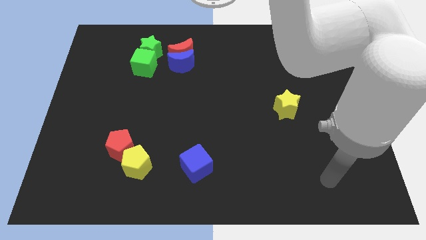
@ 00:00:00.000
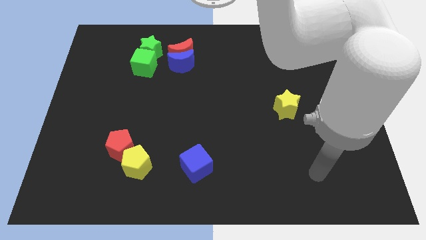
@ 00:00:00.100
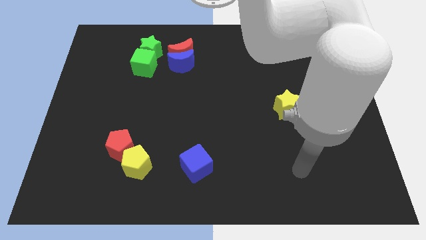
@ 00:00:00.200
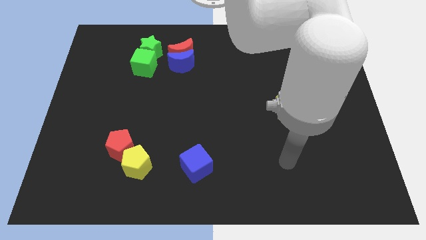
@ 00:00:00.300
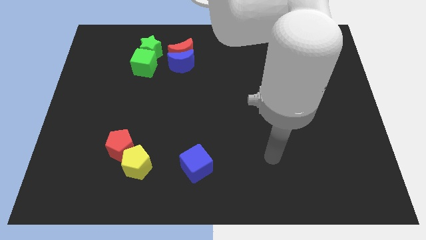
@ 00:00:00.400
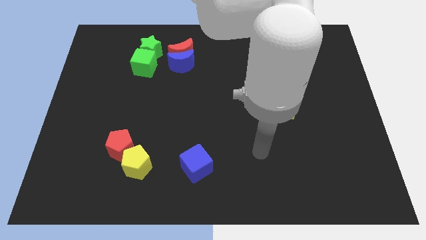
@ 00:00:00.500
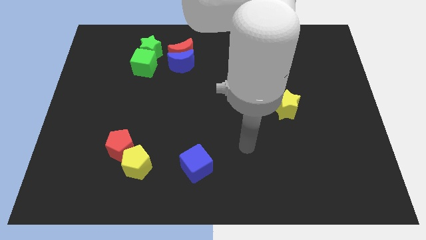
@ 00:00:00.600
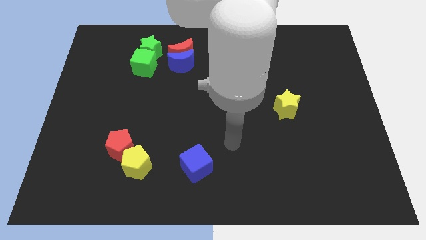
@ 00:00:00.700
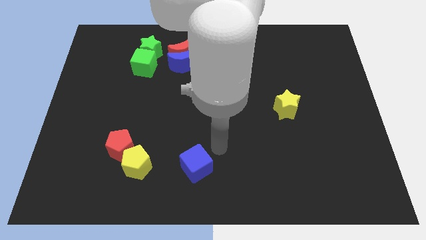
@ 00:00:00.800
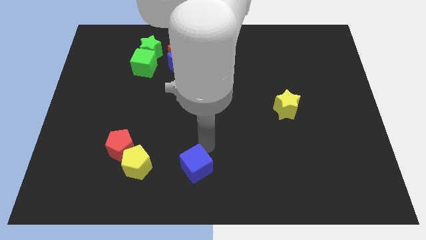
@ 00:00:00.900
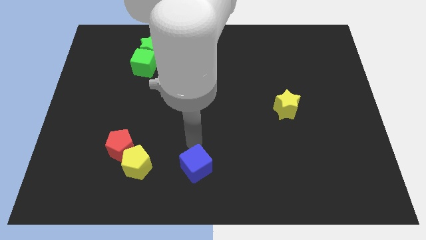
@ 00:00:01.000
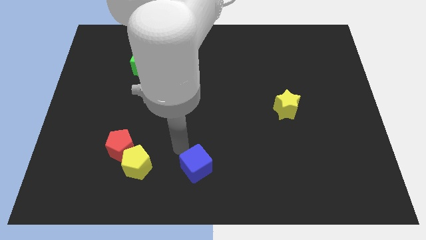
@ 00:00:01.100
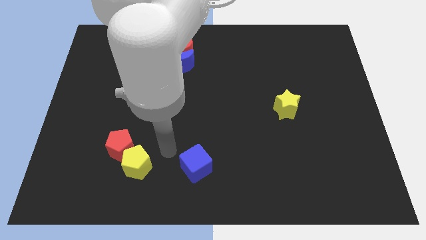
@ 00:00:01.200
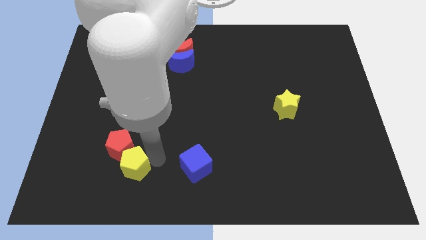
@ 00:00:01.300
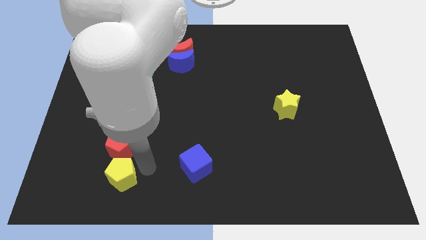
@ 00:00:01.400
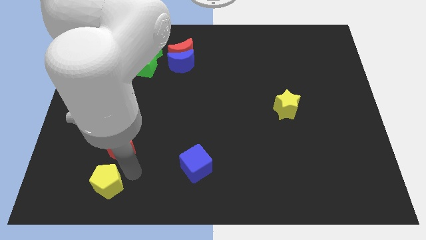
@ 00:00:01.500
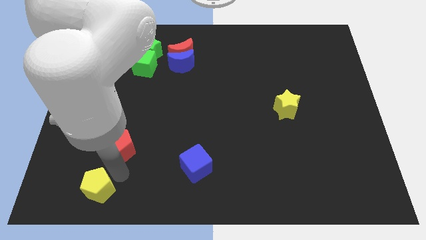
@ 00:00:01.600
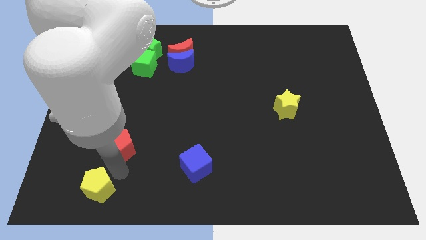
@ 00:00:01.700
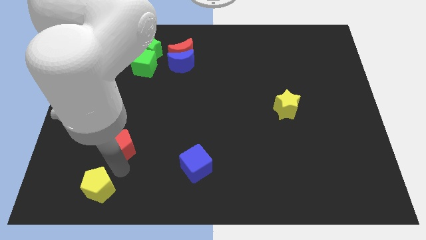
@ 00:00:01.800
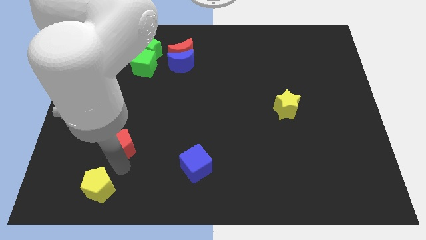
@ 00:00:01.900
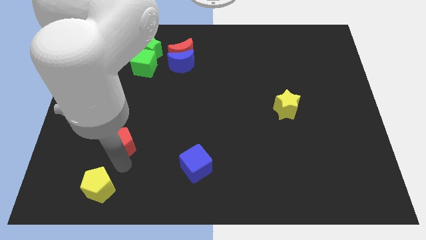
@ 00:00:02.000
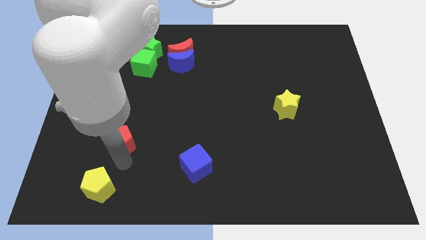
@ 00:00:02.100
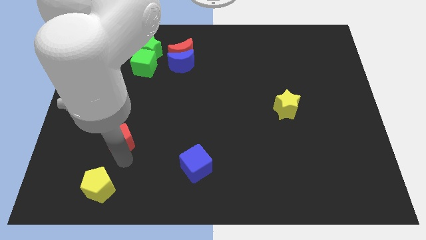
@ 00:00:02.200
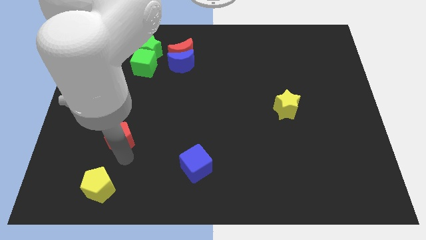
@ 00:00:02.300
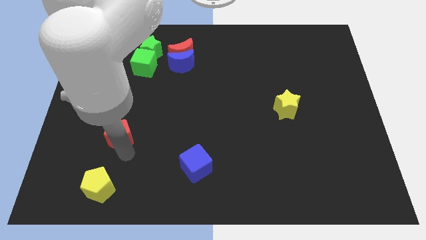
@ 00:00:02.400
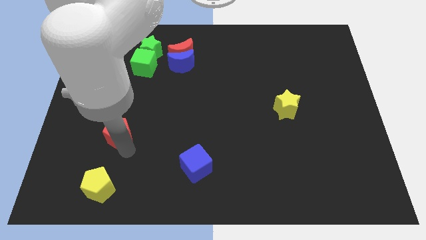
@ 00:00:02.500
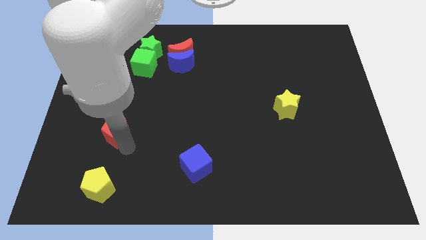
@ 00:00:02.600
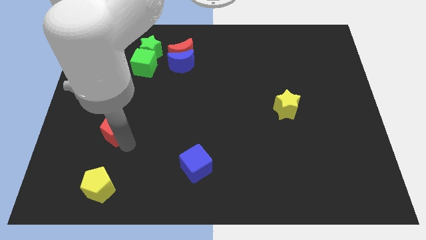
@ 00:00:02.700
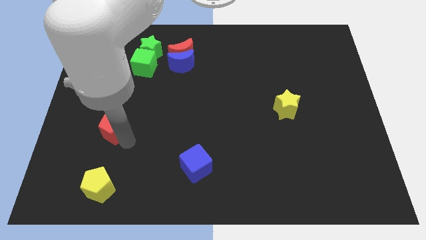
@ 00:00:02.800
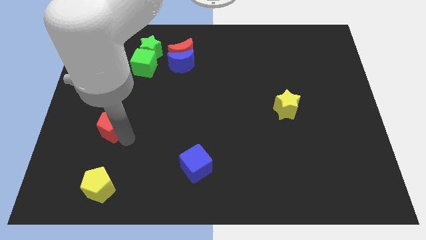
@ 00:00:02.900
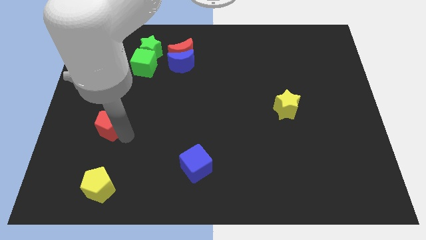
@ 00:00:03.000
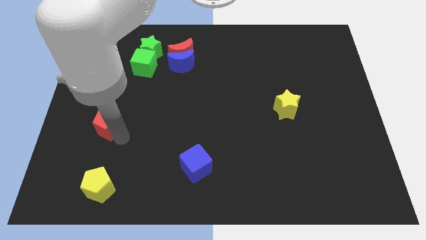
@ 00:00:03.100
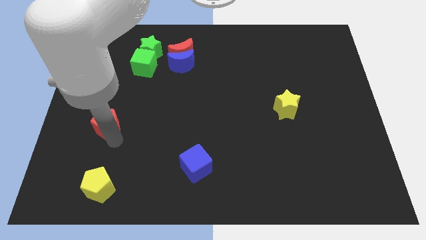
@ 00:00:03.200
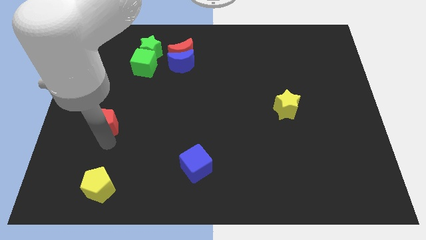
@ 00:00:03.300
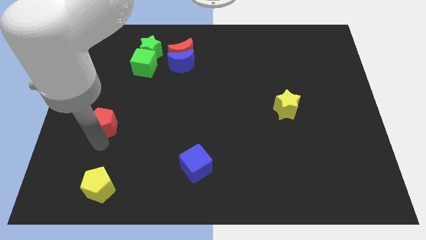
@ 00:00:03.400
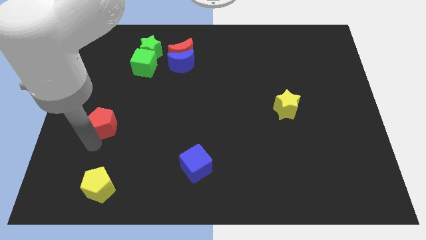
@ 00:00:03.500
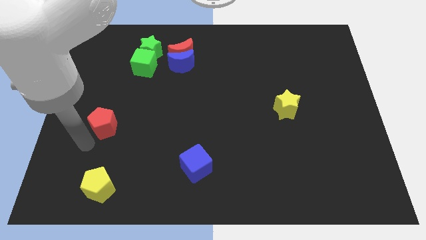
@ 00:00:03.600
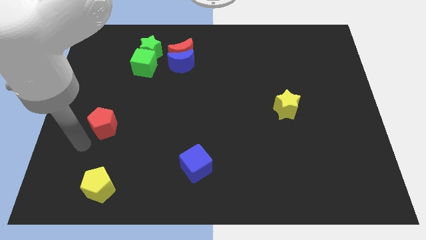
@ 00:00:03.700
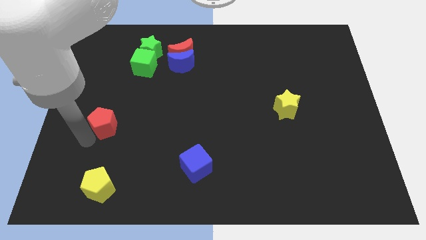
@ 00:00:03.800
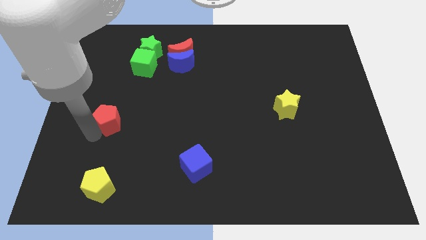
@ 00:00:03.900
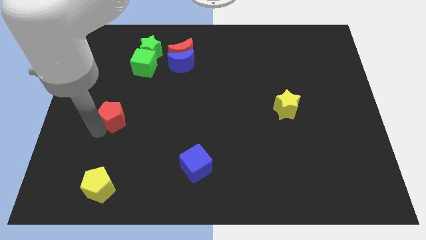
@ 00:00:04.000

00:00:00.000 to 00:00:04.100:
push the red pentagon up a bit

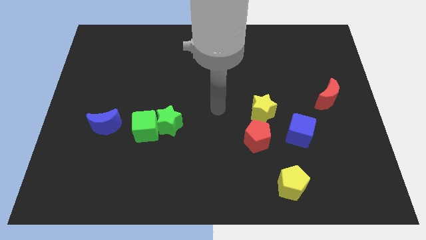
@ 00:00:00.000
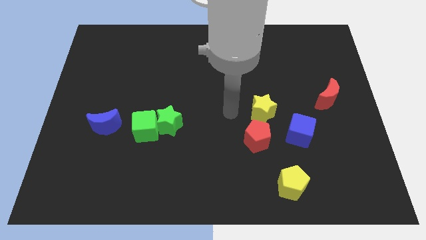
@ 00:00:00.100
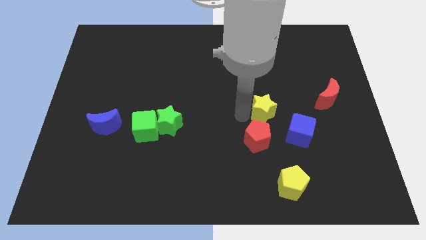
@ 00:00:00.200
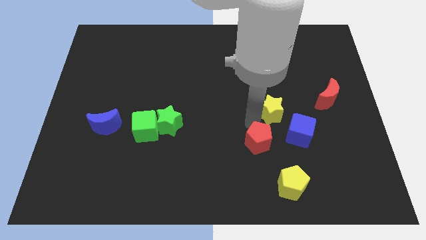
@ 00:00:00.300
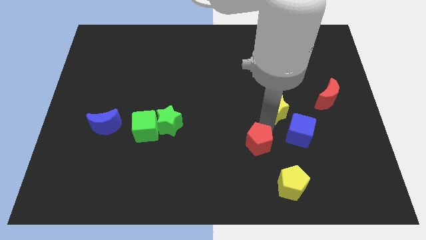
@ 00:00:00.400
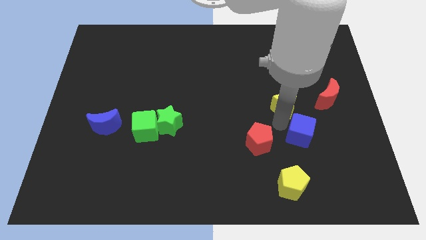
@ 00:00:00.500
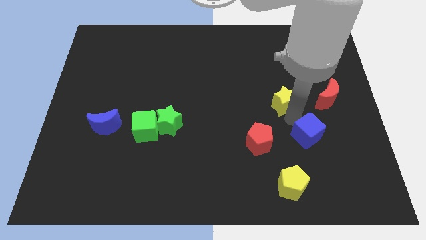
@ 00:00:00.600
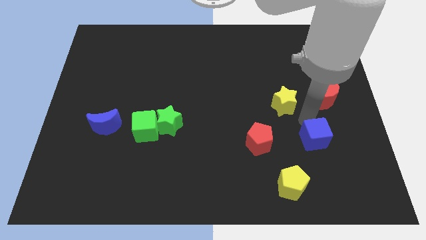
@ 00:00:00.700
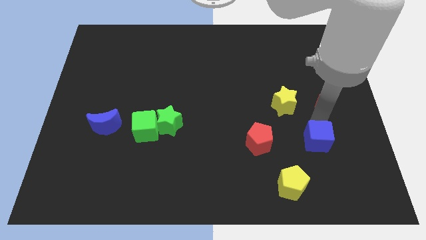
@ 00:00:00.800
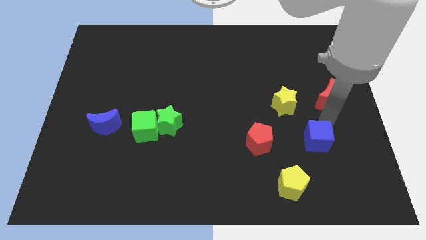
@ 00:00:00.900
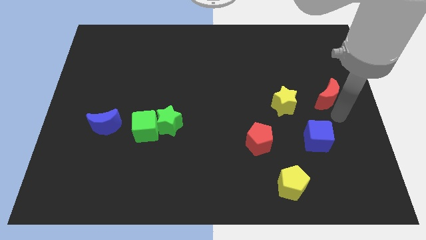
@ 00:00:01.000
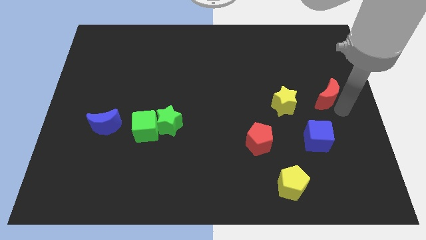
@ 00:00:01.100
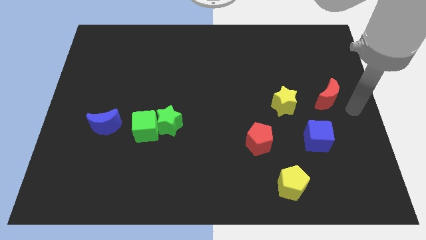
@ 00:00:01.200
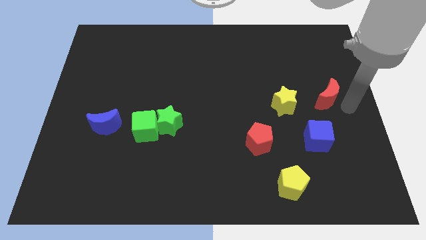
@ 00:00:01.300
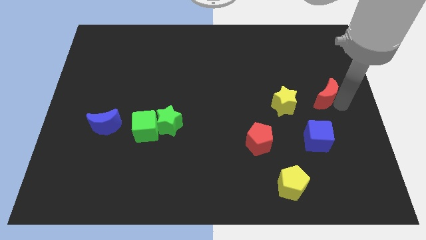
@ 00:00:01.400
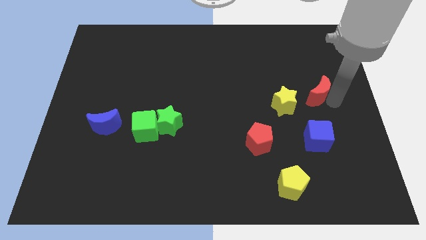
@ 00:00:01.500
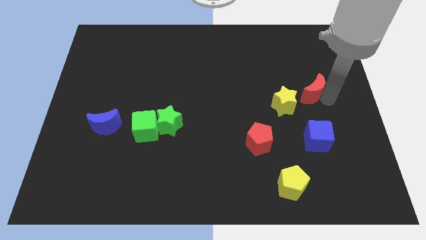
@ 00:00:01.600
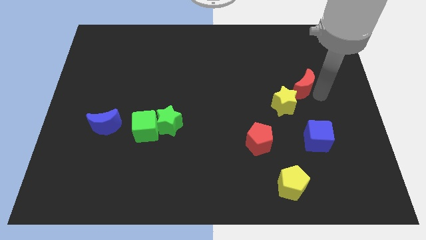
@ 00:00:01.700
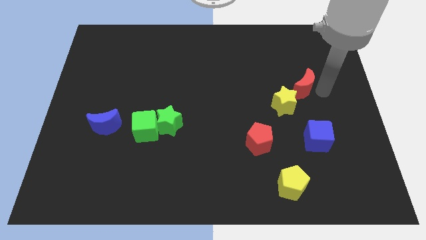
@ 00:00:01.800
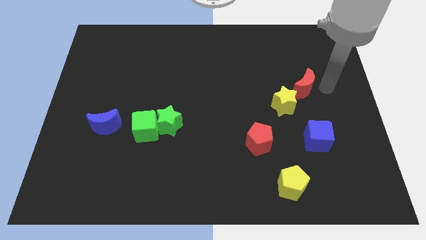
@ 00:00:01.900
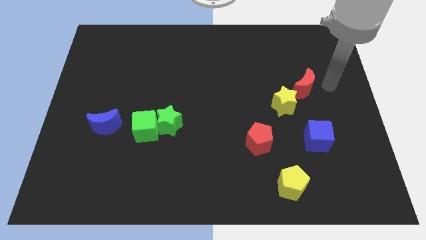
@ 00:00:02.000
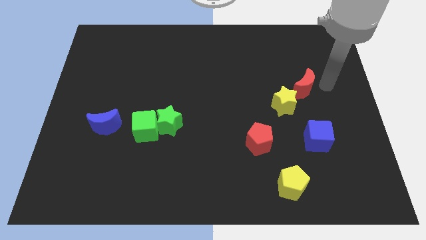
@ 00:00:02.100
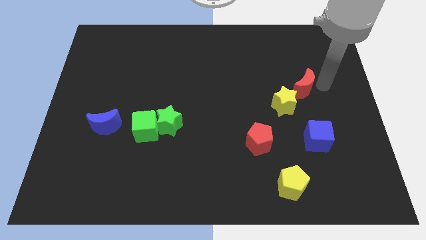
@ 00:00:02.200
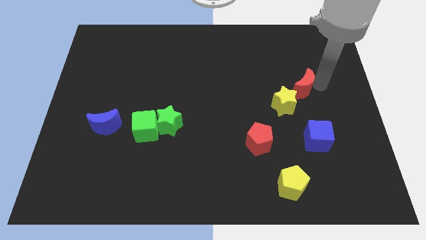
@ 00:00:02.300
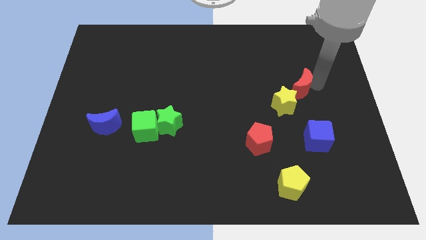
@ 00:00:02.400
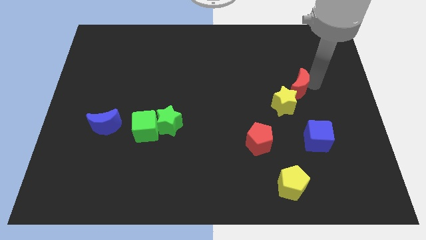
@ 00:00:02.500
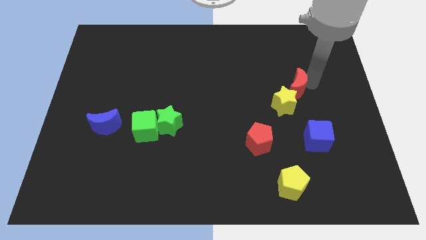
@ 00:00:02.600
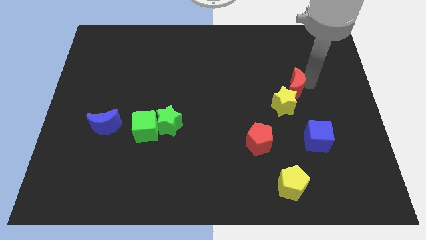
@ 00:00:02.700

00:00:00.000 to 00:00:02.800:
slightly move the red moon to the left

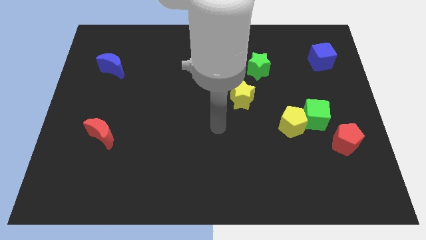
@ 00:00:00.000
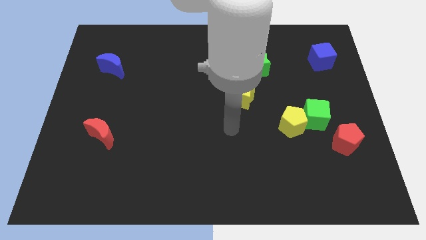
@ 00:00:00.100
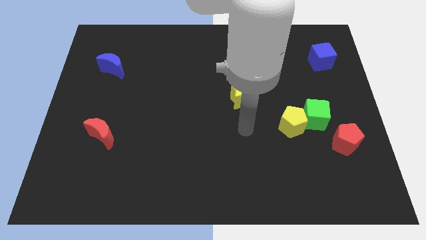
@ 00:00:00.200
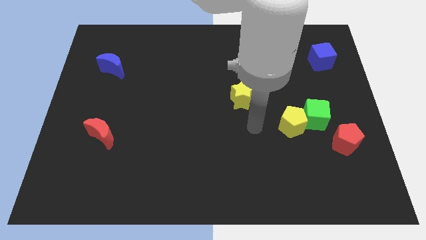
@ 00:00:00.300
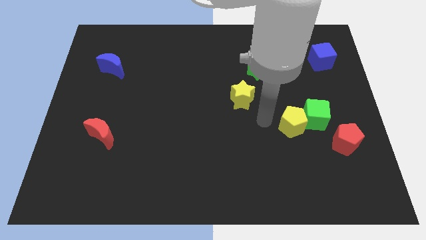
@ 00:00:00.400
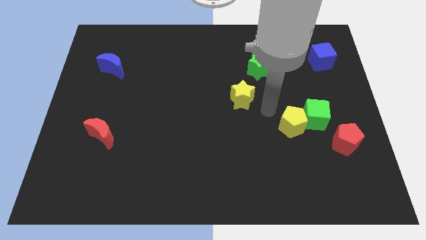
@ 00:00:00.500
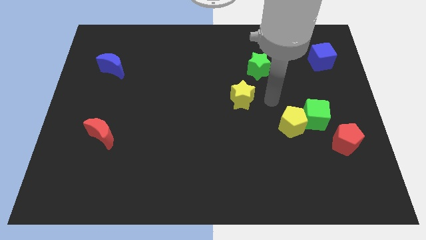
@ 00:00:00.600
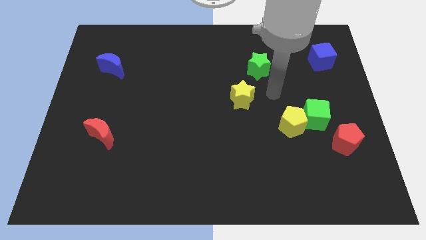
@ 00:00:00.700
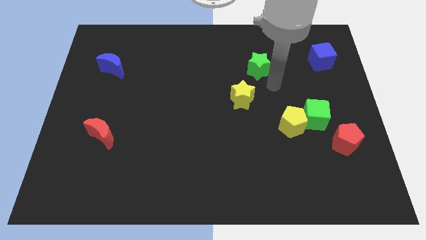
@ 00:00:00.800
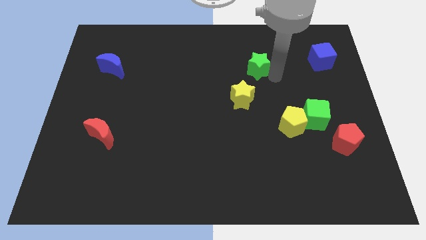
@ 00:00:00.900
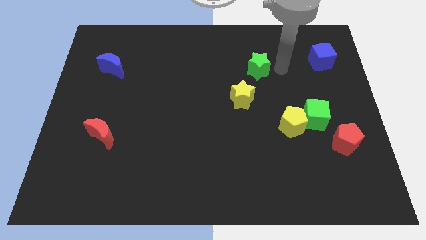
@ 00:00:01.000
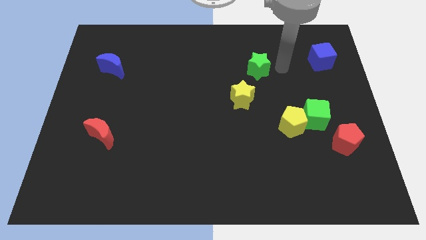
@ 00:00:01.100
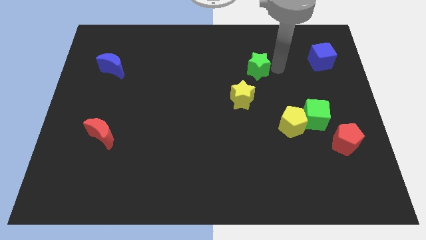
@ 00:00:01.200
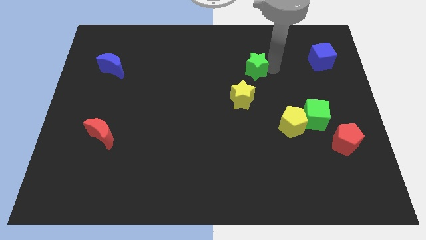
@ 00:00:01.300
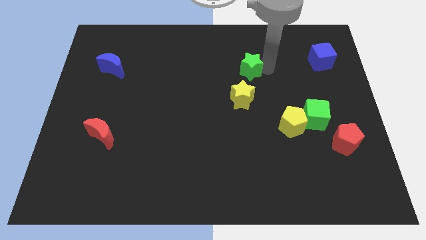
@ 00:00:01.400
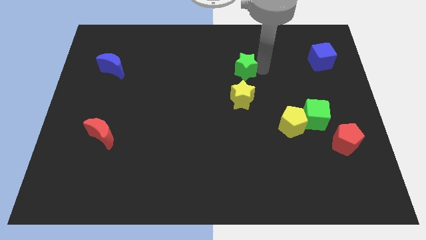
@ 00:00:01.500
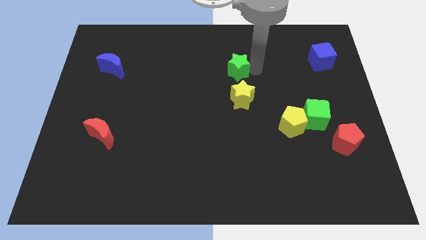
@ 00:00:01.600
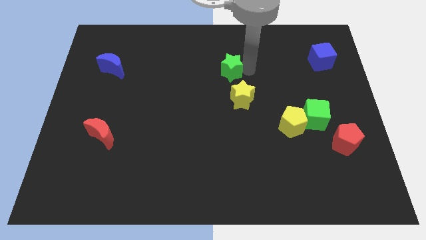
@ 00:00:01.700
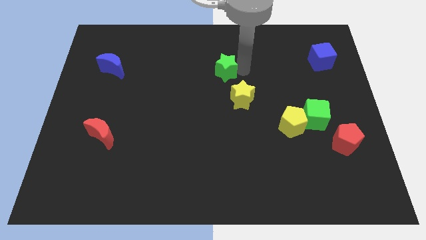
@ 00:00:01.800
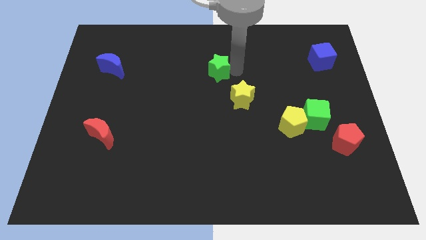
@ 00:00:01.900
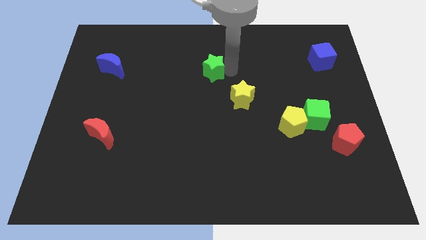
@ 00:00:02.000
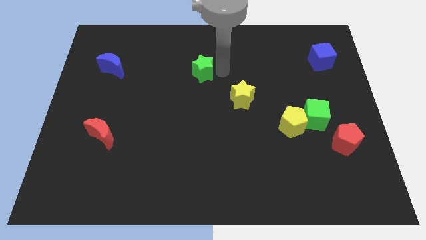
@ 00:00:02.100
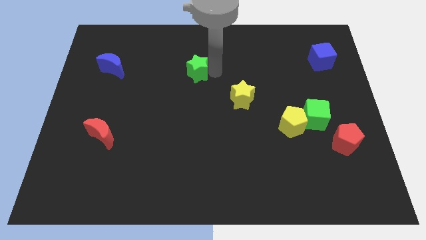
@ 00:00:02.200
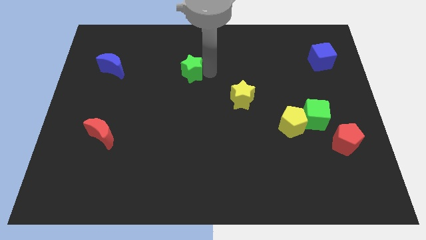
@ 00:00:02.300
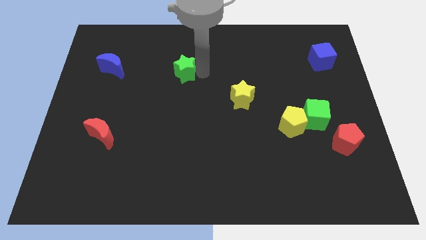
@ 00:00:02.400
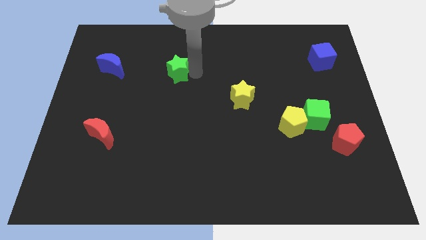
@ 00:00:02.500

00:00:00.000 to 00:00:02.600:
move the green star left
